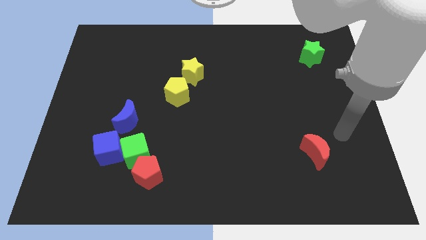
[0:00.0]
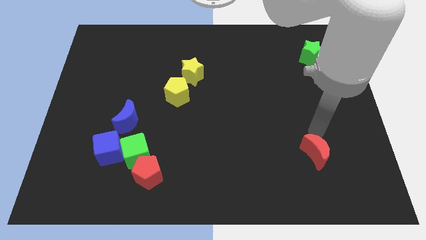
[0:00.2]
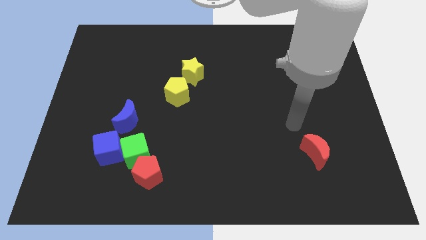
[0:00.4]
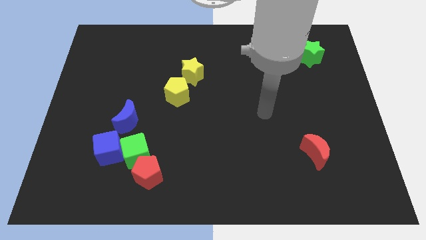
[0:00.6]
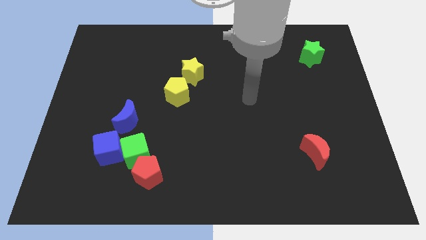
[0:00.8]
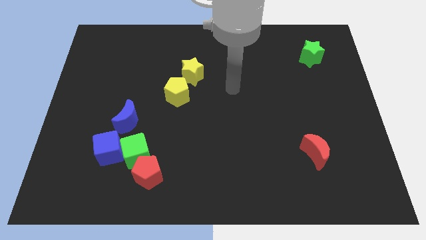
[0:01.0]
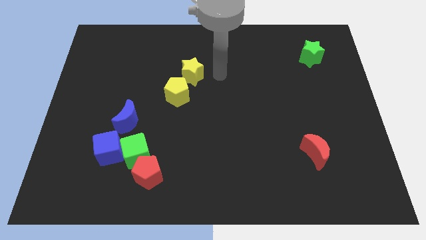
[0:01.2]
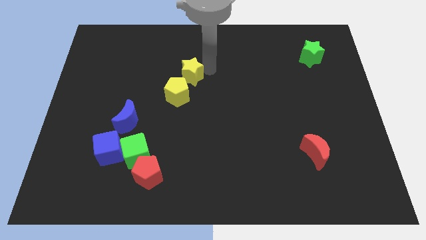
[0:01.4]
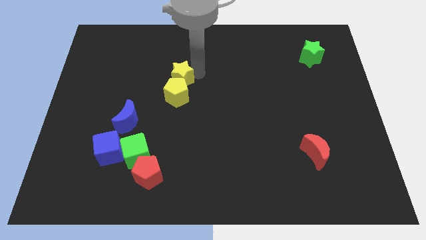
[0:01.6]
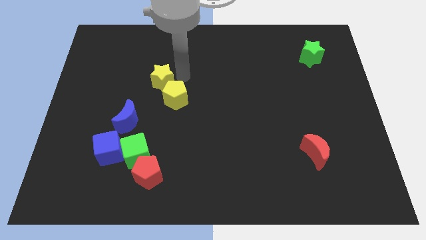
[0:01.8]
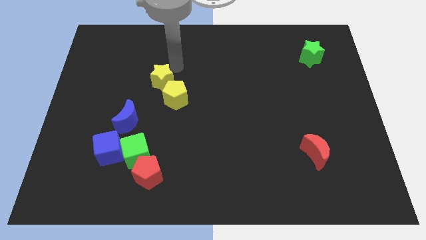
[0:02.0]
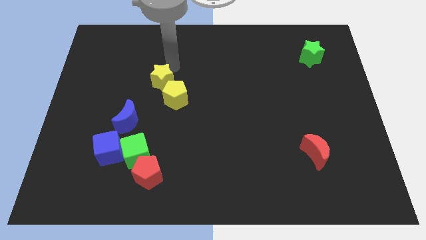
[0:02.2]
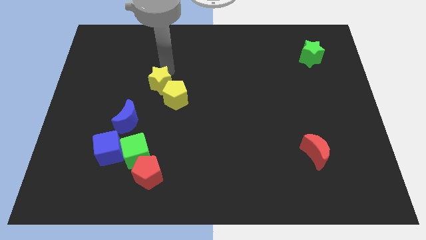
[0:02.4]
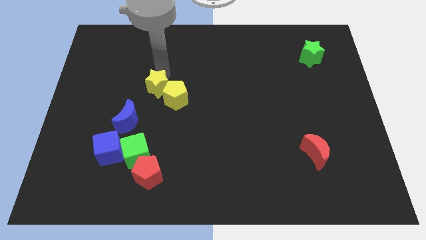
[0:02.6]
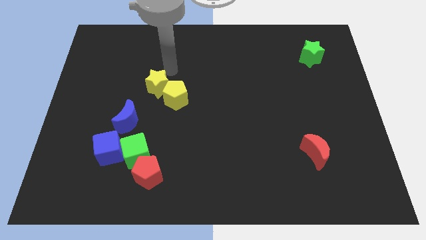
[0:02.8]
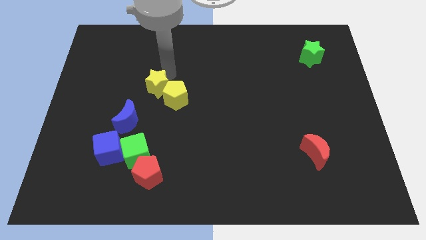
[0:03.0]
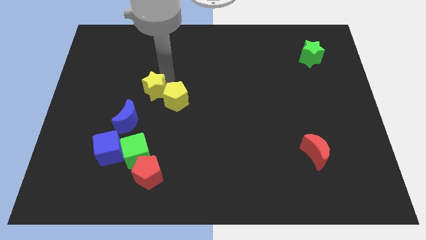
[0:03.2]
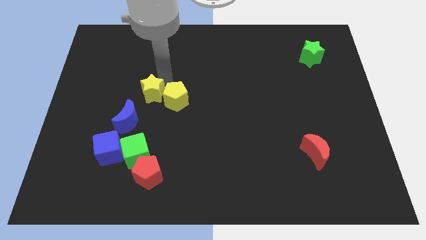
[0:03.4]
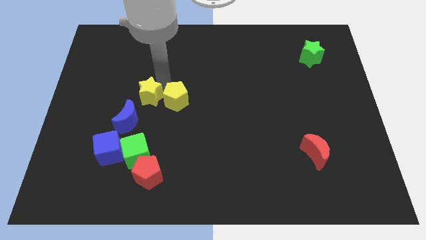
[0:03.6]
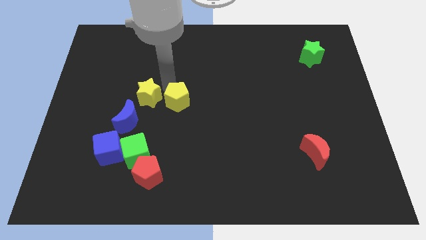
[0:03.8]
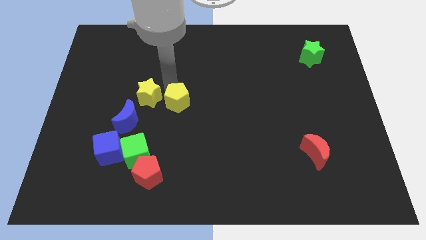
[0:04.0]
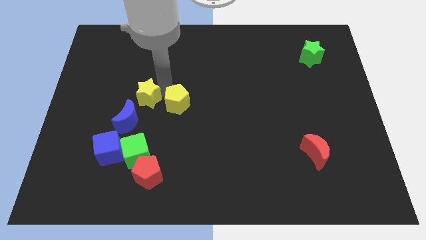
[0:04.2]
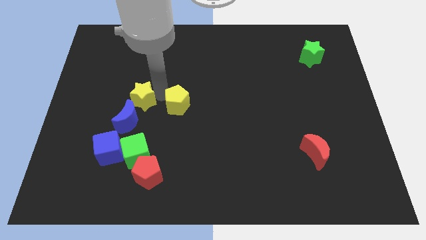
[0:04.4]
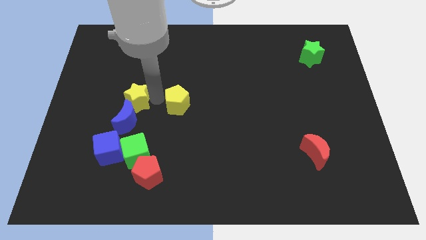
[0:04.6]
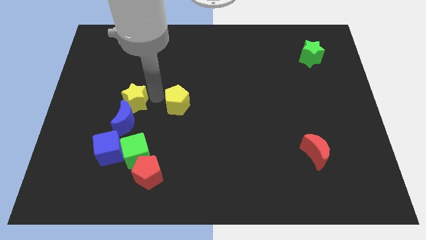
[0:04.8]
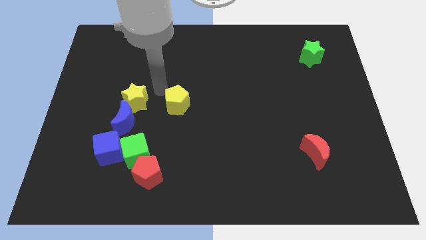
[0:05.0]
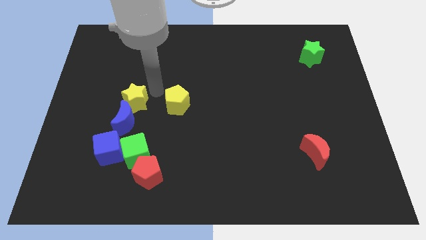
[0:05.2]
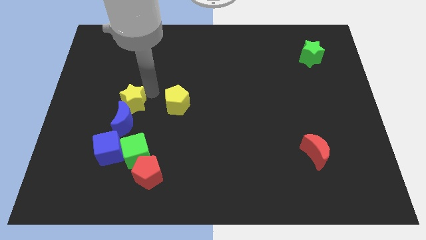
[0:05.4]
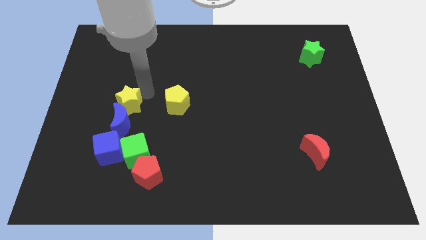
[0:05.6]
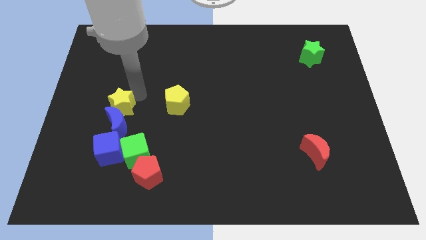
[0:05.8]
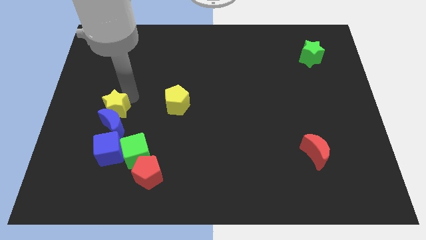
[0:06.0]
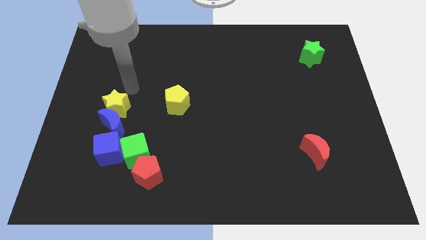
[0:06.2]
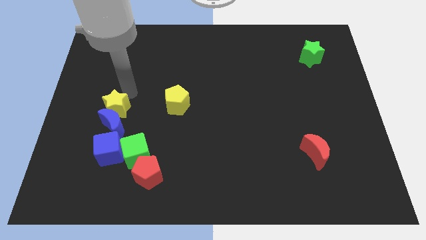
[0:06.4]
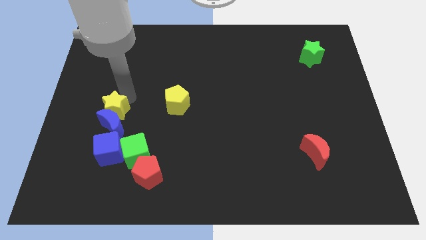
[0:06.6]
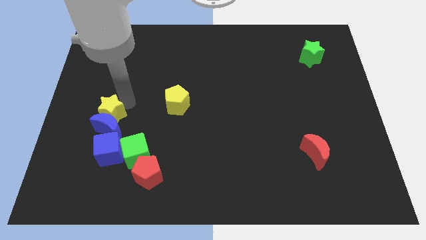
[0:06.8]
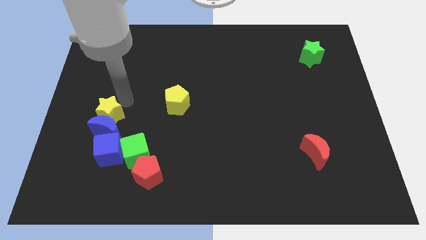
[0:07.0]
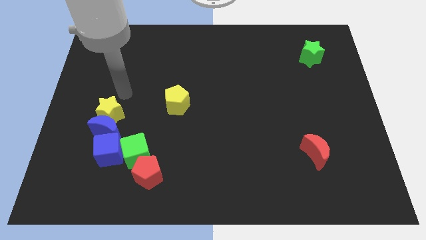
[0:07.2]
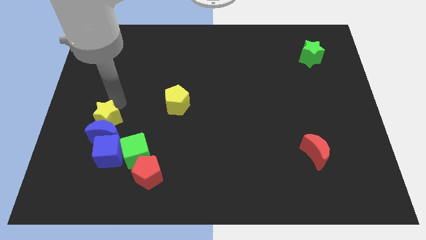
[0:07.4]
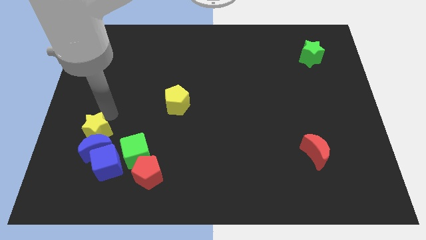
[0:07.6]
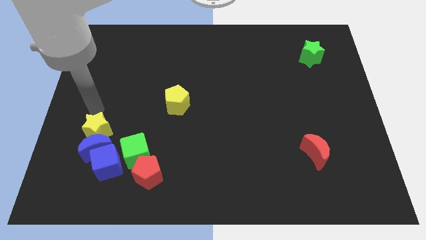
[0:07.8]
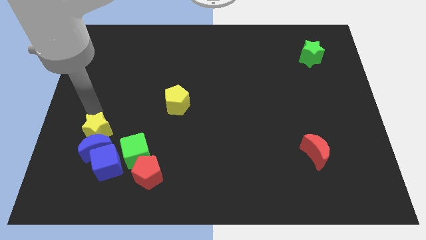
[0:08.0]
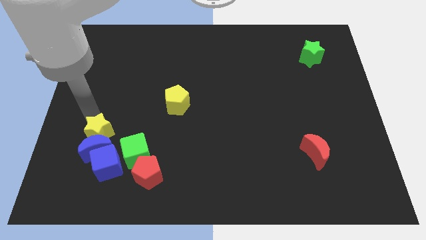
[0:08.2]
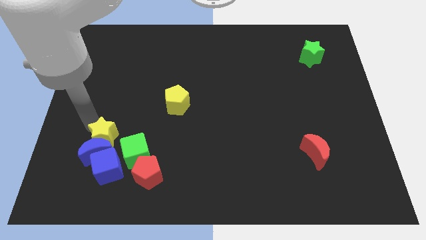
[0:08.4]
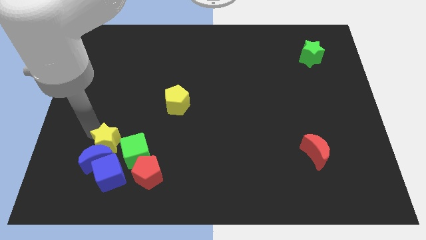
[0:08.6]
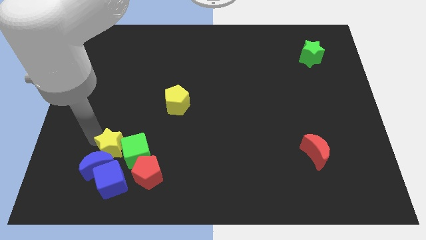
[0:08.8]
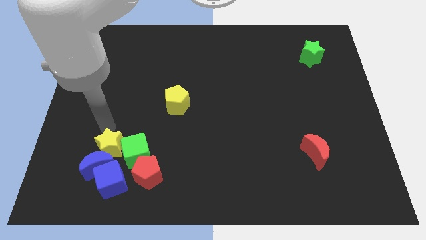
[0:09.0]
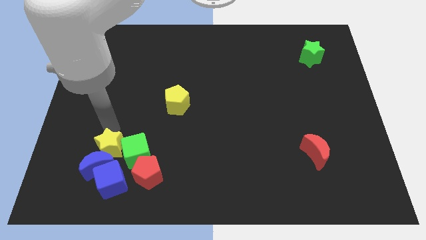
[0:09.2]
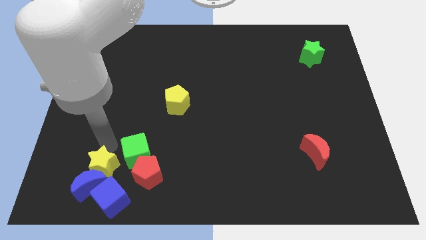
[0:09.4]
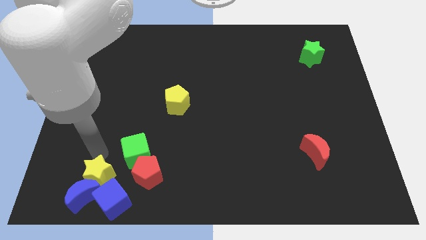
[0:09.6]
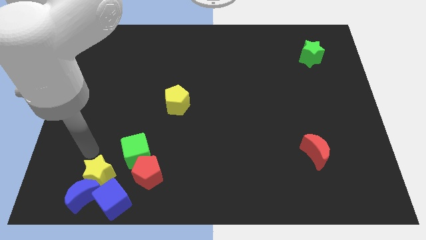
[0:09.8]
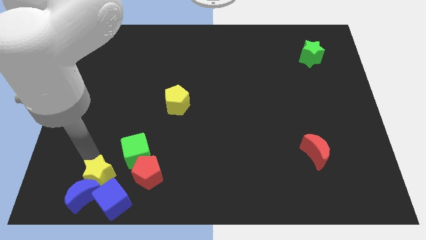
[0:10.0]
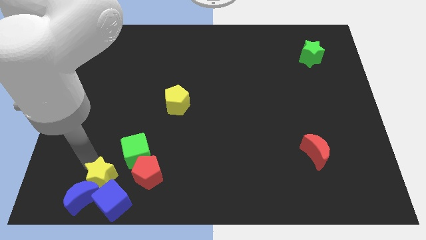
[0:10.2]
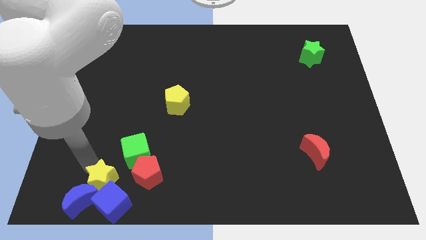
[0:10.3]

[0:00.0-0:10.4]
move the yellow star next to the blue cube

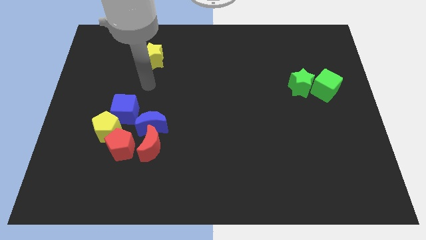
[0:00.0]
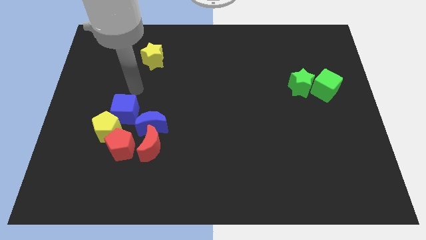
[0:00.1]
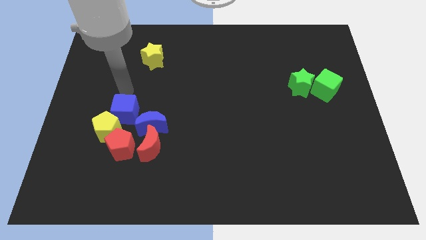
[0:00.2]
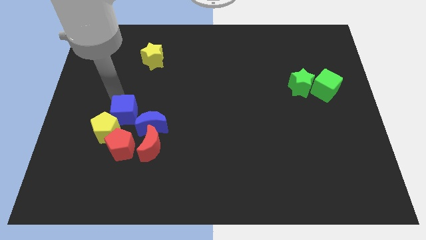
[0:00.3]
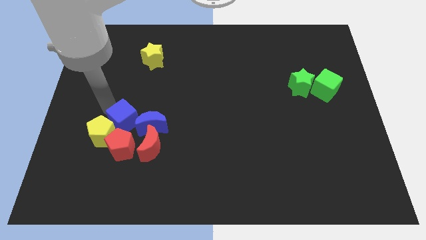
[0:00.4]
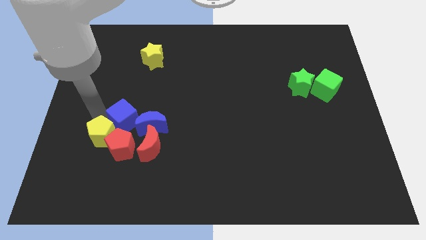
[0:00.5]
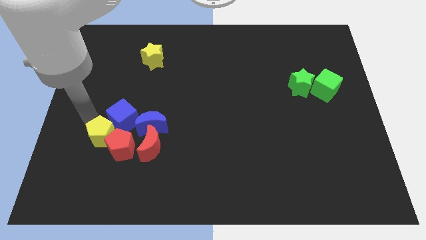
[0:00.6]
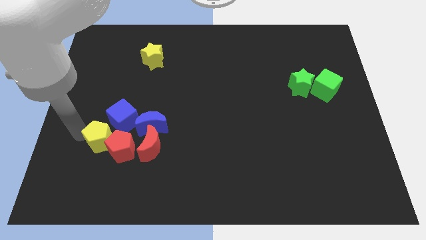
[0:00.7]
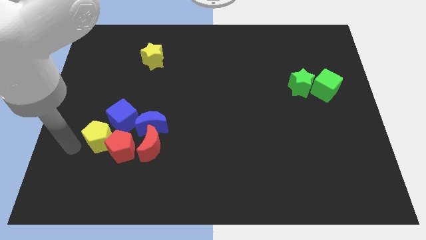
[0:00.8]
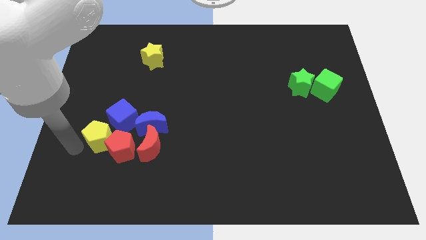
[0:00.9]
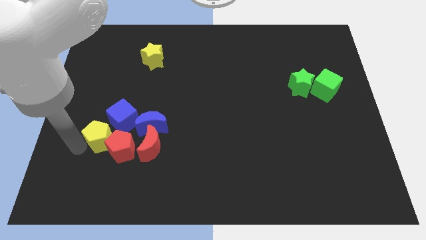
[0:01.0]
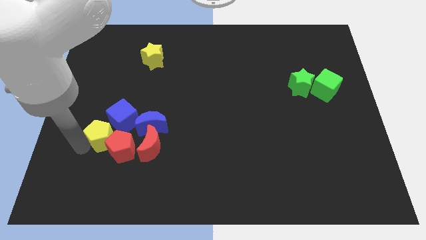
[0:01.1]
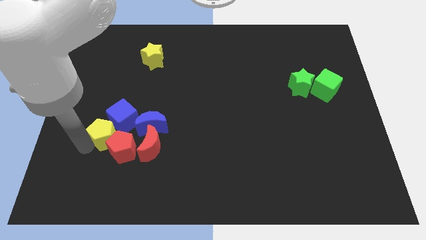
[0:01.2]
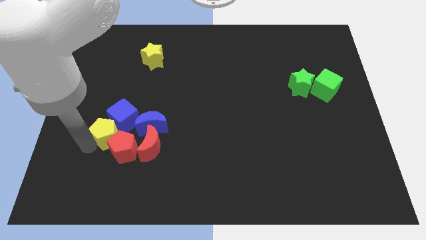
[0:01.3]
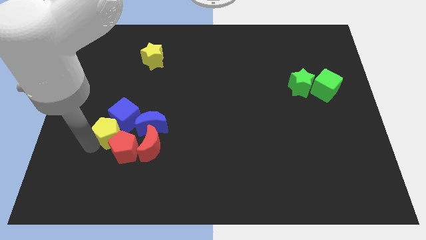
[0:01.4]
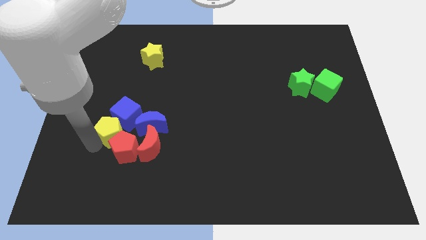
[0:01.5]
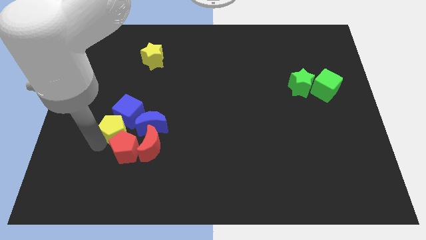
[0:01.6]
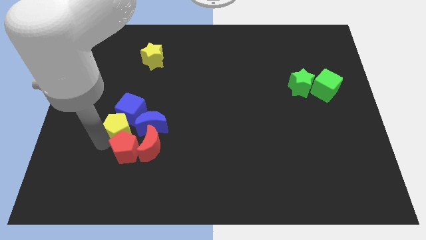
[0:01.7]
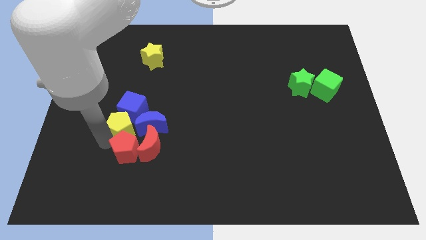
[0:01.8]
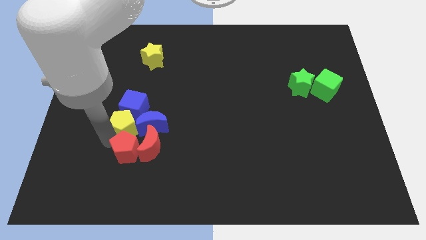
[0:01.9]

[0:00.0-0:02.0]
push the yellow pentagon next to the blue moon

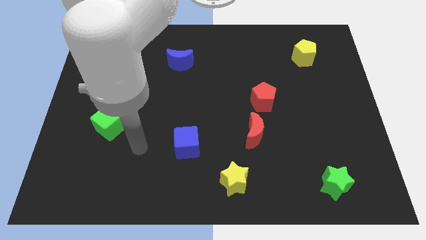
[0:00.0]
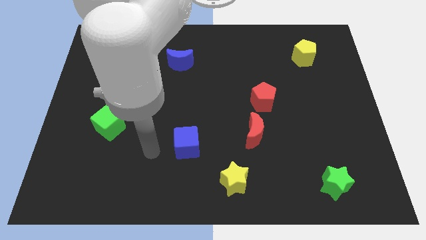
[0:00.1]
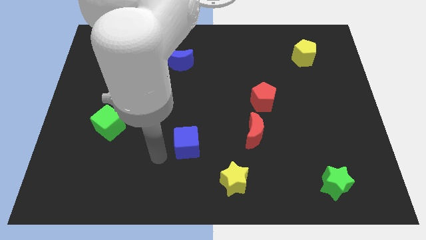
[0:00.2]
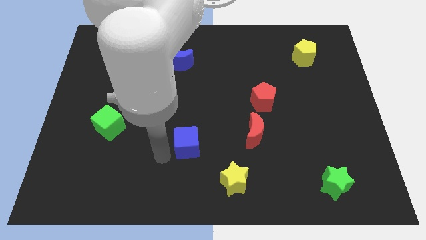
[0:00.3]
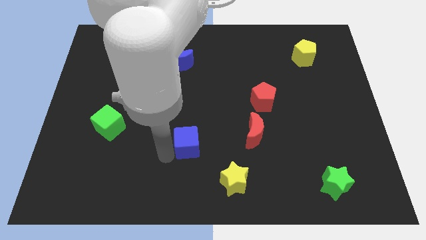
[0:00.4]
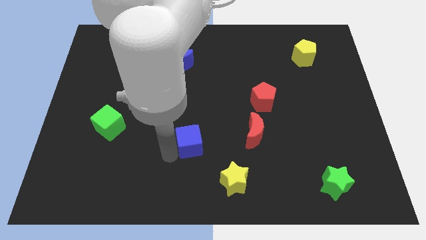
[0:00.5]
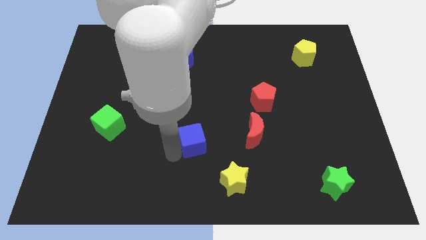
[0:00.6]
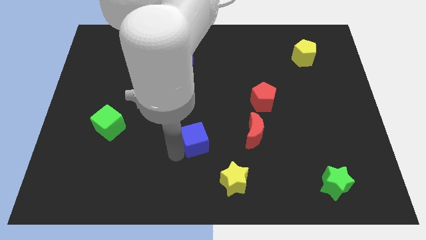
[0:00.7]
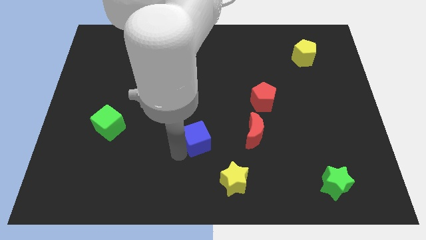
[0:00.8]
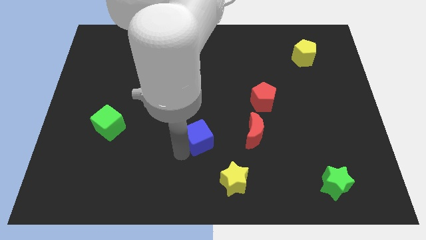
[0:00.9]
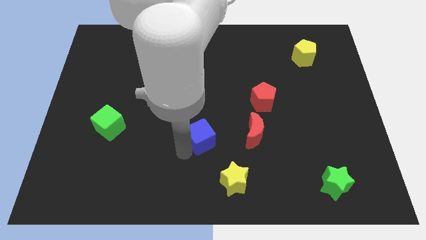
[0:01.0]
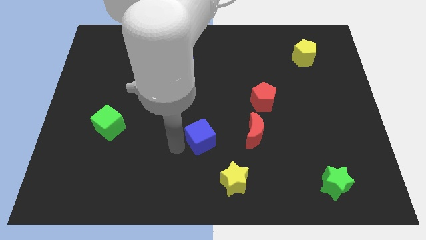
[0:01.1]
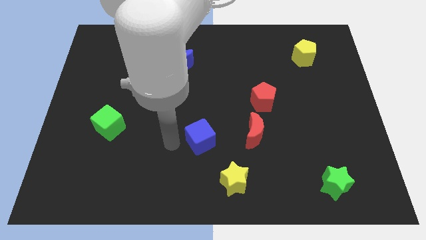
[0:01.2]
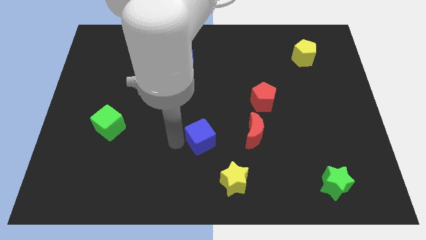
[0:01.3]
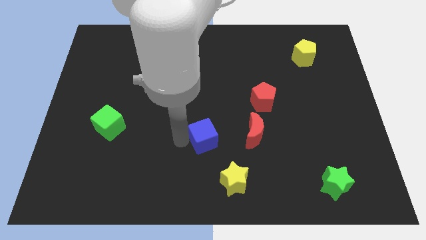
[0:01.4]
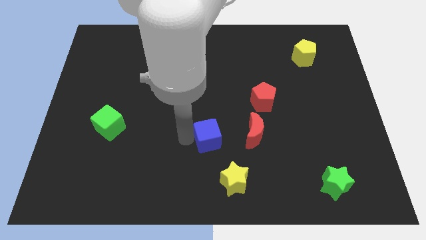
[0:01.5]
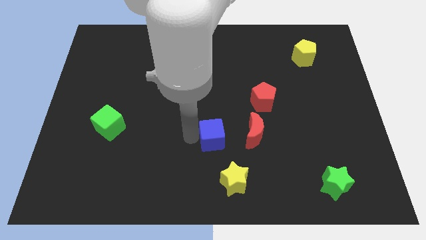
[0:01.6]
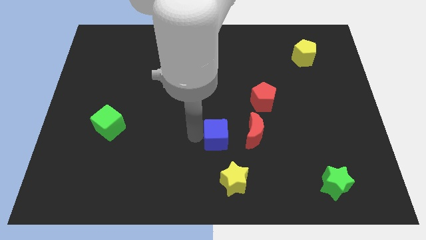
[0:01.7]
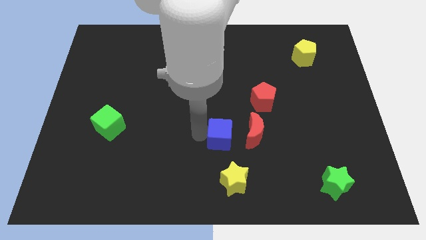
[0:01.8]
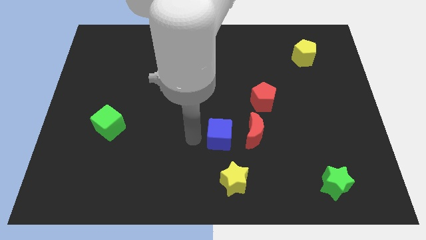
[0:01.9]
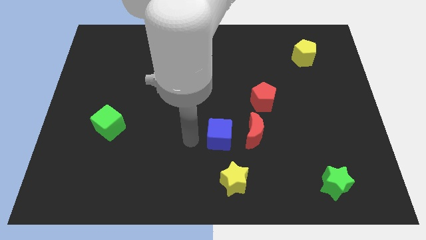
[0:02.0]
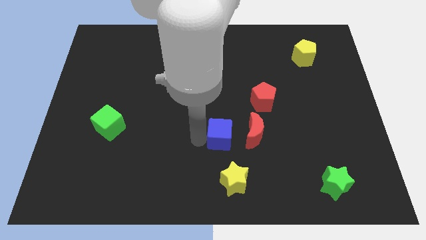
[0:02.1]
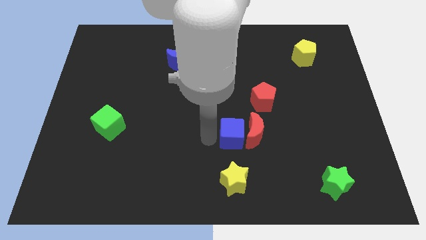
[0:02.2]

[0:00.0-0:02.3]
move the blue cube next to the red moon
